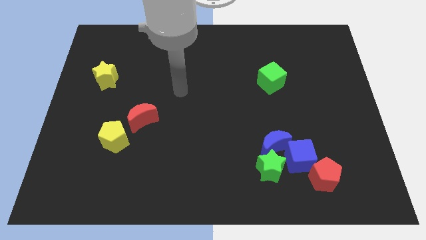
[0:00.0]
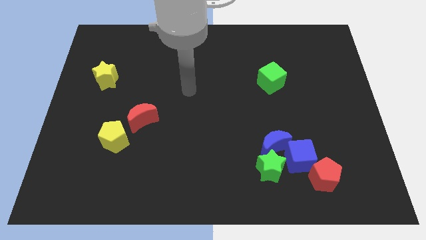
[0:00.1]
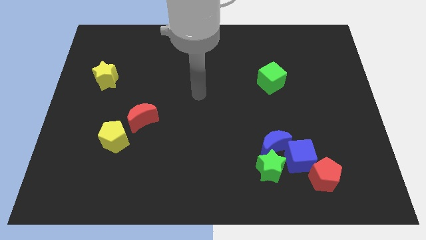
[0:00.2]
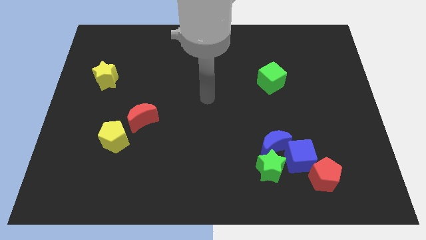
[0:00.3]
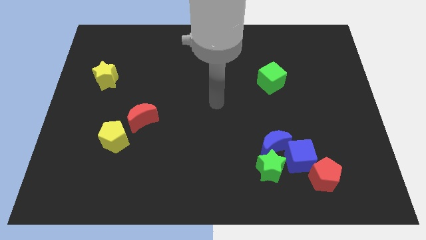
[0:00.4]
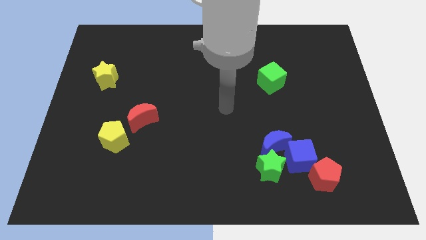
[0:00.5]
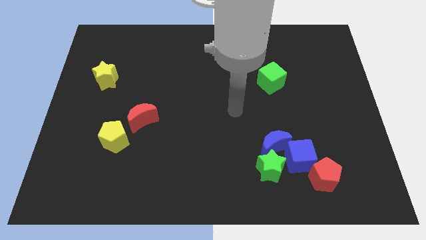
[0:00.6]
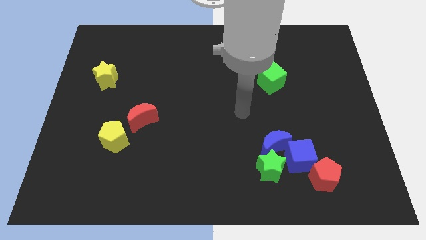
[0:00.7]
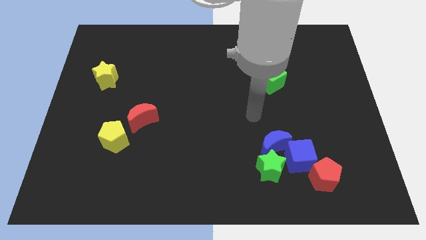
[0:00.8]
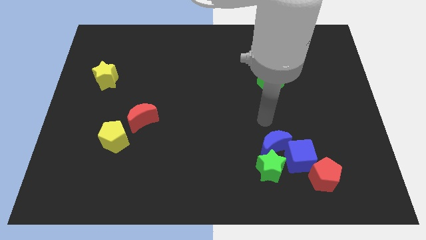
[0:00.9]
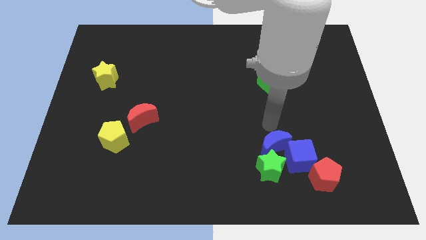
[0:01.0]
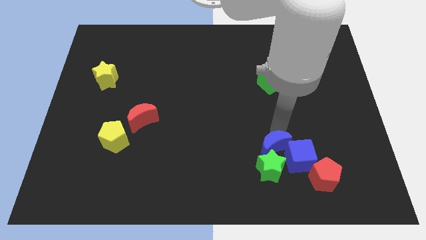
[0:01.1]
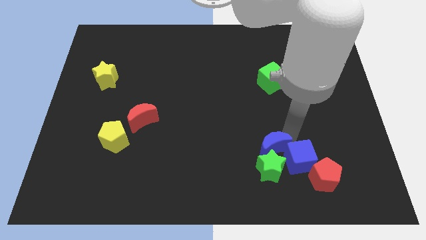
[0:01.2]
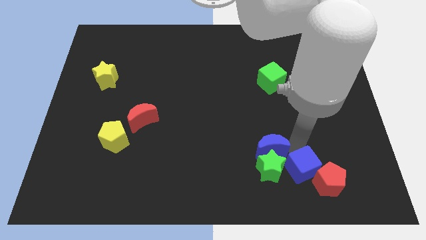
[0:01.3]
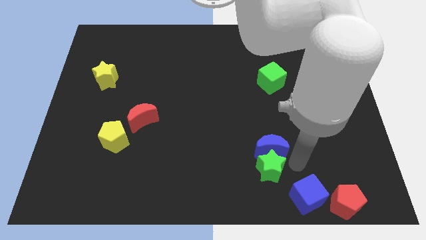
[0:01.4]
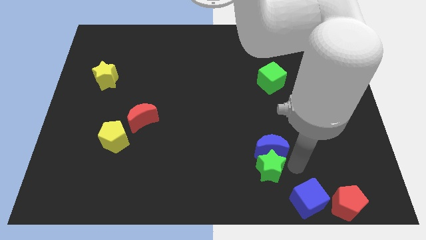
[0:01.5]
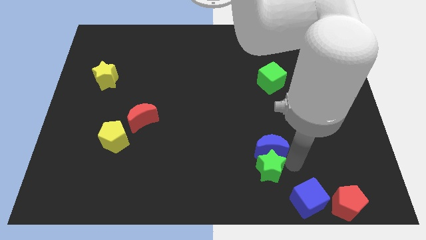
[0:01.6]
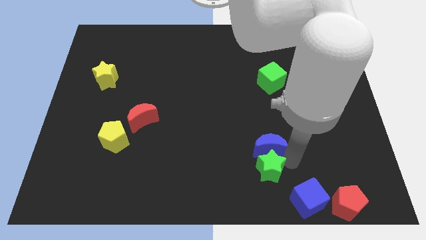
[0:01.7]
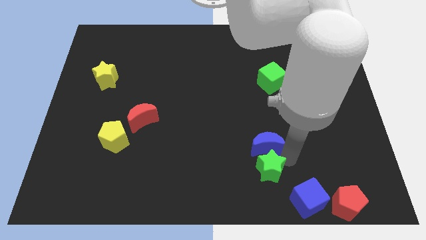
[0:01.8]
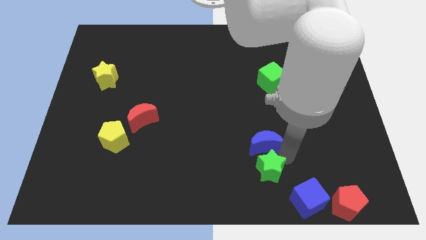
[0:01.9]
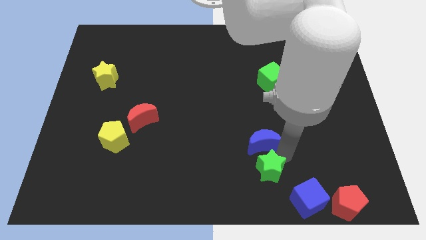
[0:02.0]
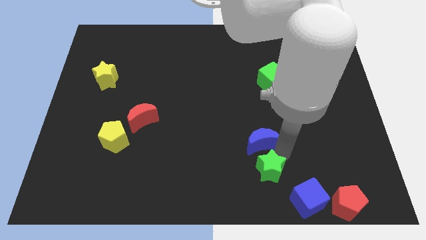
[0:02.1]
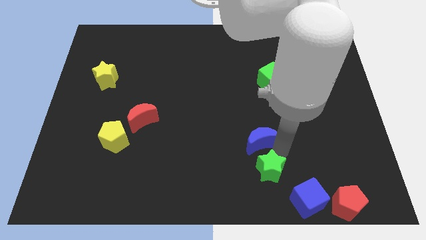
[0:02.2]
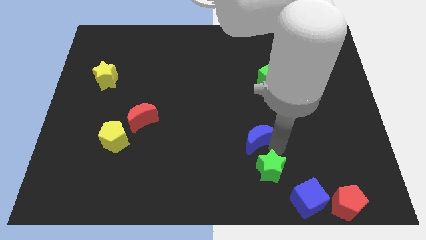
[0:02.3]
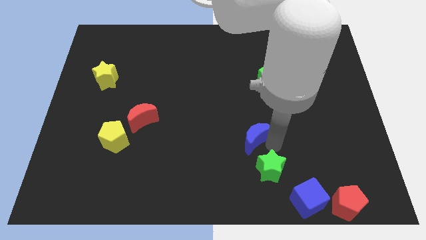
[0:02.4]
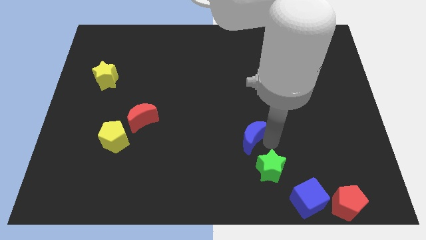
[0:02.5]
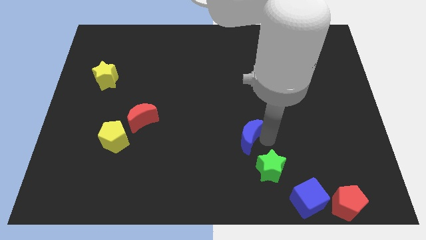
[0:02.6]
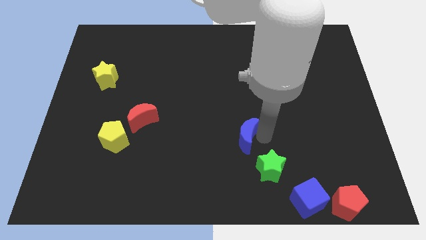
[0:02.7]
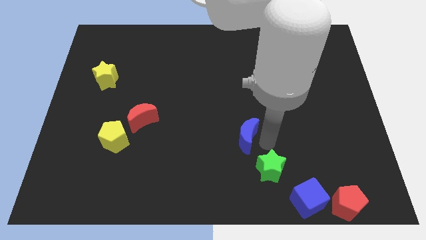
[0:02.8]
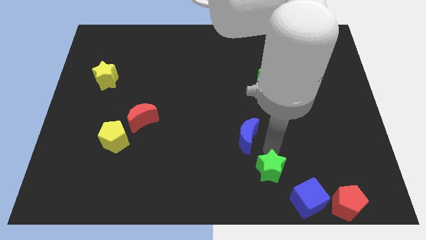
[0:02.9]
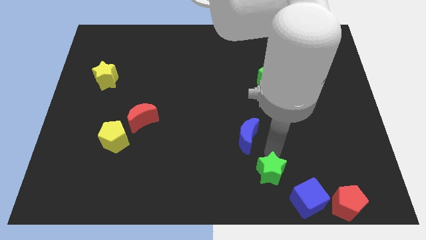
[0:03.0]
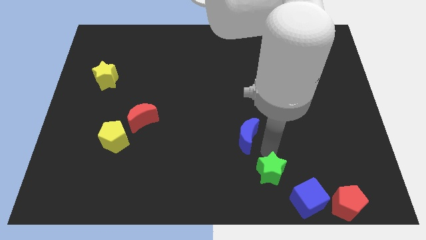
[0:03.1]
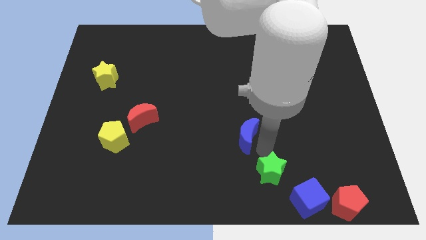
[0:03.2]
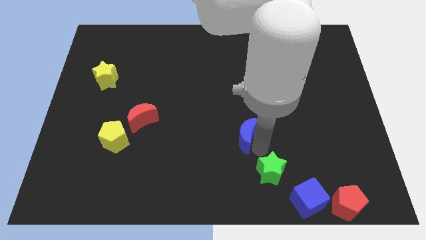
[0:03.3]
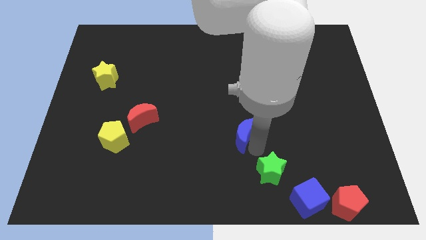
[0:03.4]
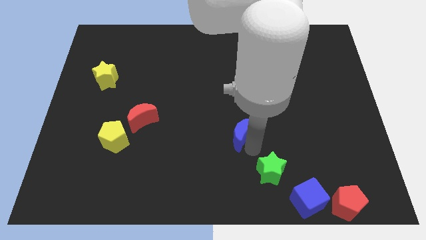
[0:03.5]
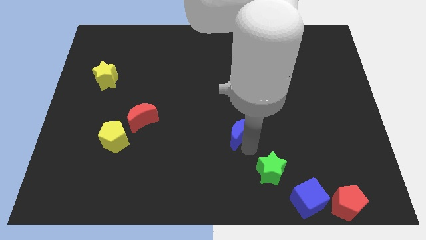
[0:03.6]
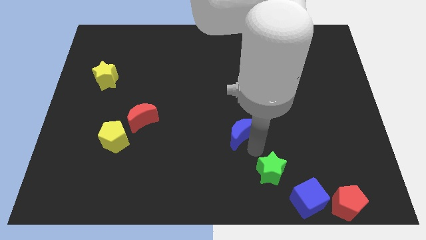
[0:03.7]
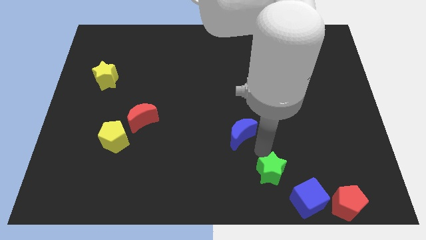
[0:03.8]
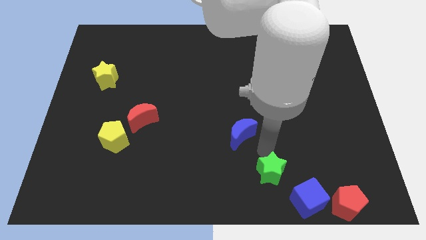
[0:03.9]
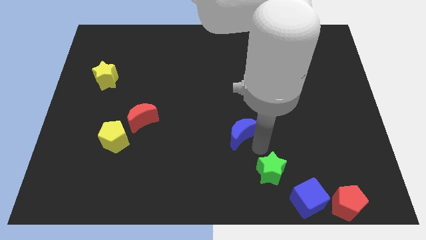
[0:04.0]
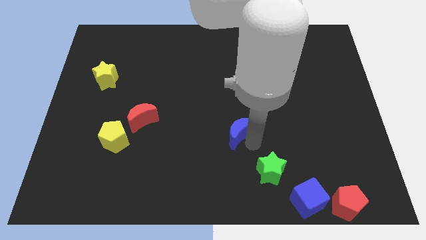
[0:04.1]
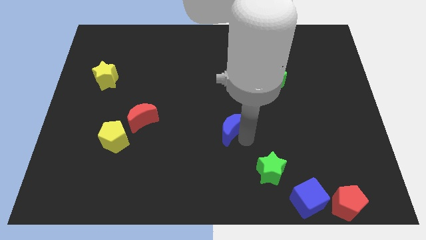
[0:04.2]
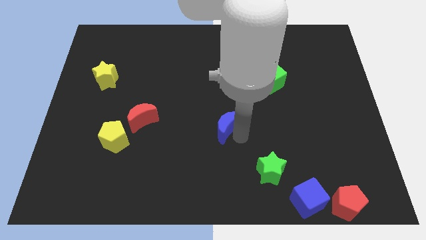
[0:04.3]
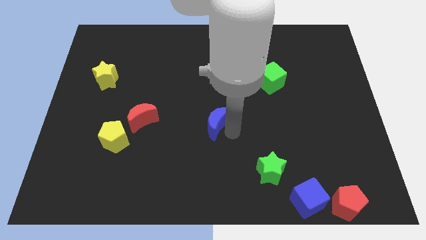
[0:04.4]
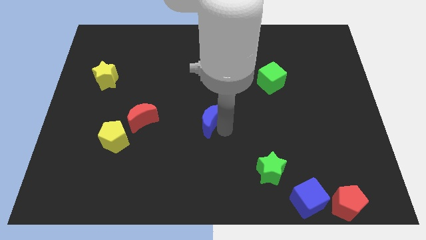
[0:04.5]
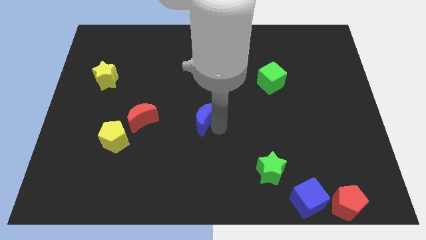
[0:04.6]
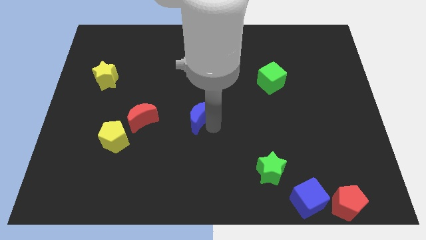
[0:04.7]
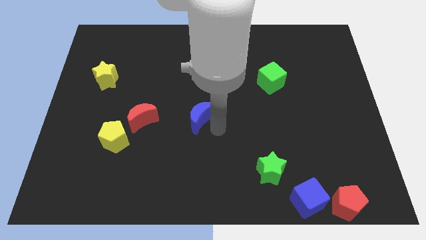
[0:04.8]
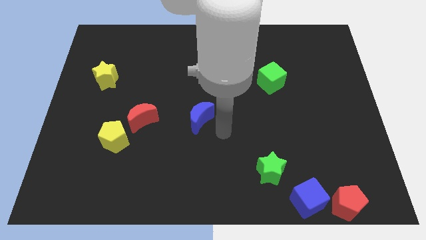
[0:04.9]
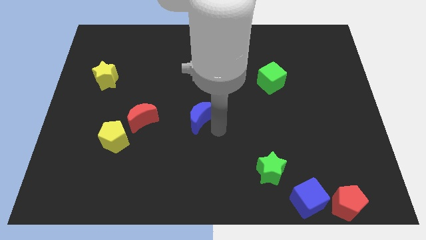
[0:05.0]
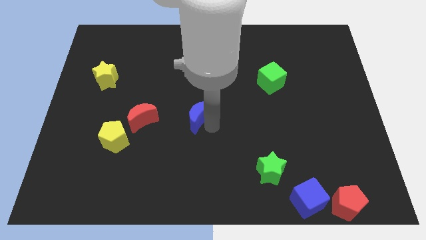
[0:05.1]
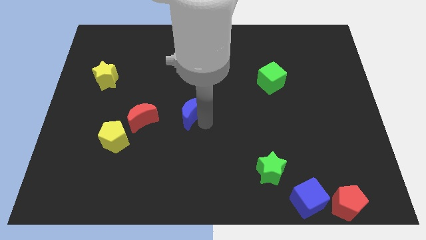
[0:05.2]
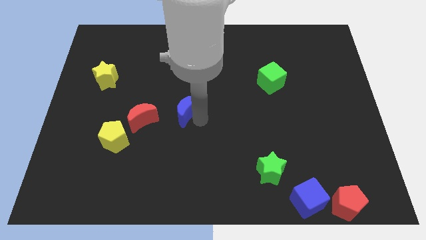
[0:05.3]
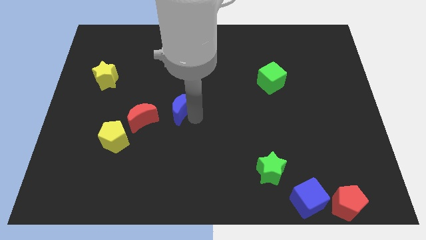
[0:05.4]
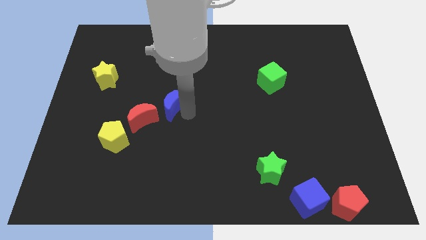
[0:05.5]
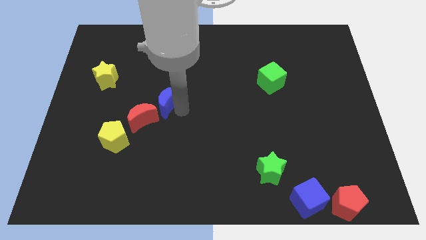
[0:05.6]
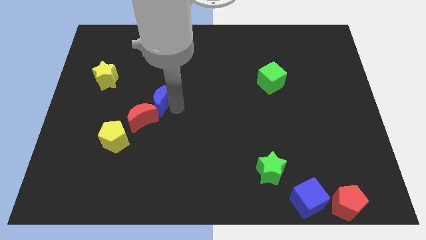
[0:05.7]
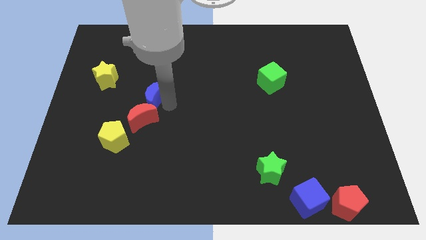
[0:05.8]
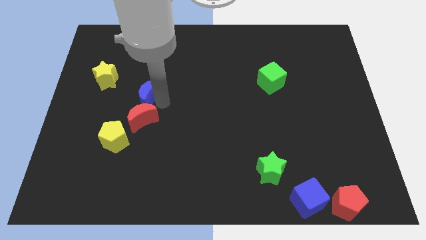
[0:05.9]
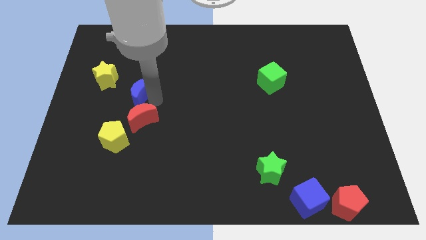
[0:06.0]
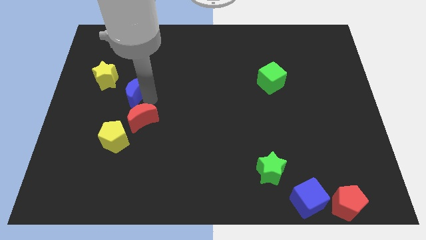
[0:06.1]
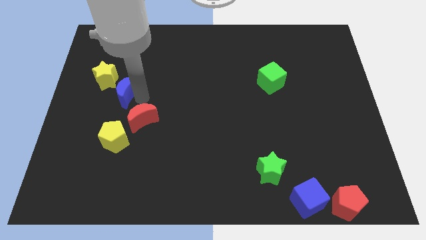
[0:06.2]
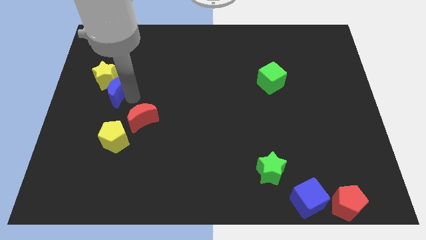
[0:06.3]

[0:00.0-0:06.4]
slide the blue moon close to the yellow star

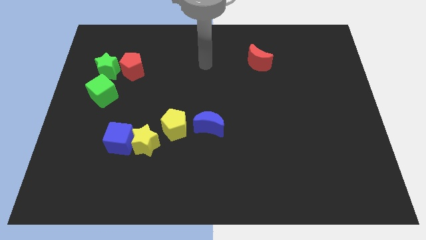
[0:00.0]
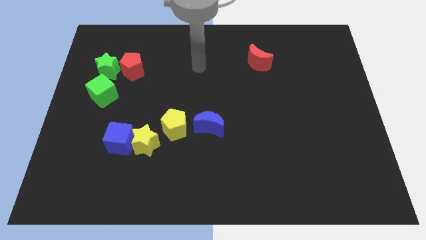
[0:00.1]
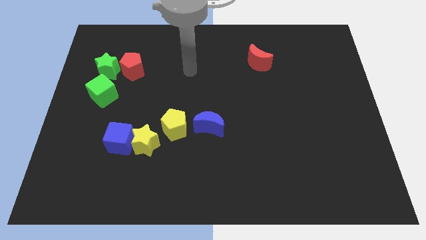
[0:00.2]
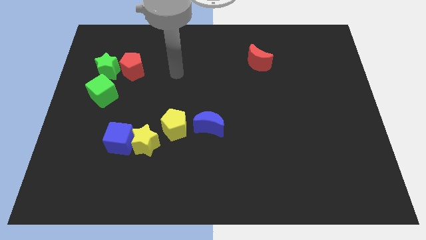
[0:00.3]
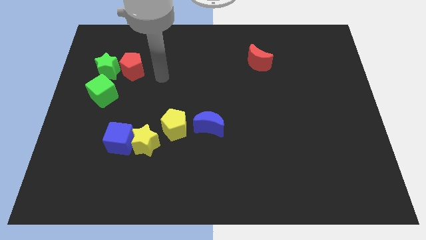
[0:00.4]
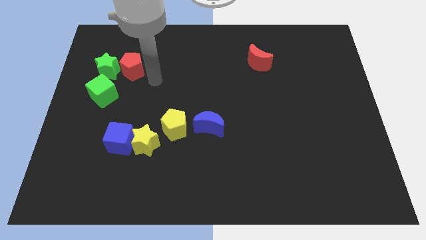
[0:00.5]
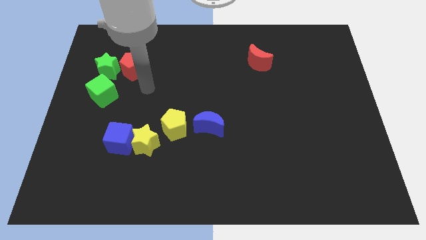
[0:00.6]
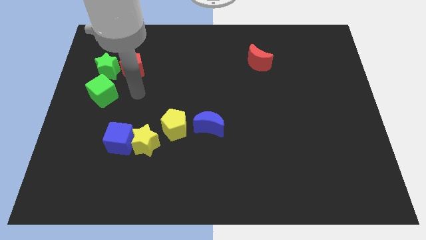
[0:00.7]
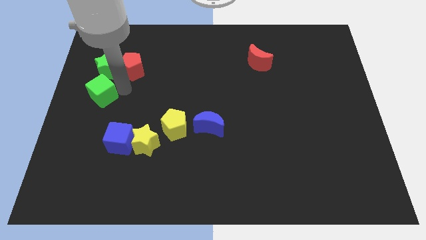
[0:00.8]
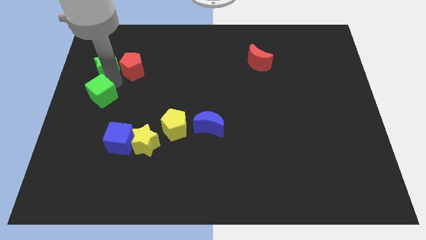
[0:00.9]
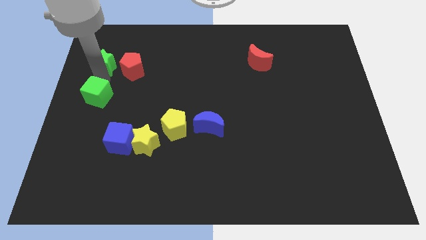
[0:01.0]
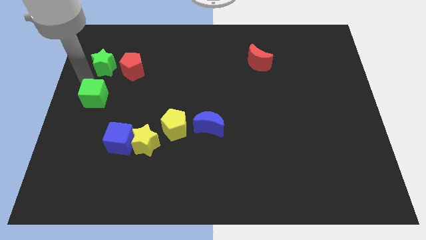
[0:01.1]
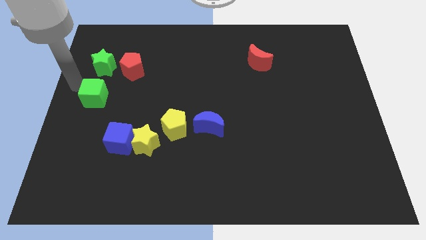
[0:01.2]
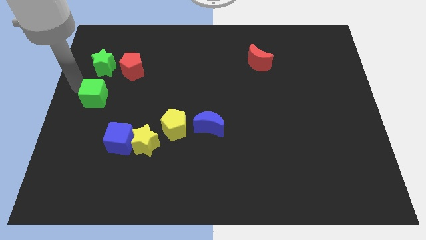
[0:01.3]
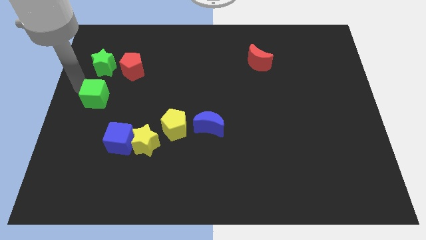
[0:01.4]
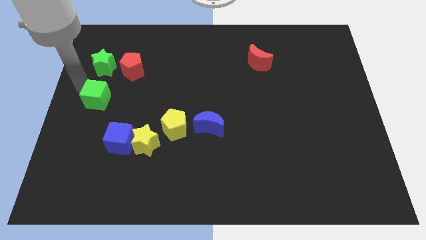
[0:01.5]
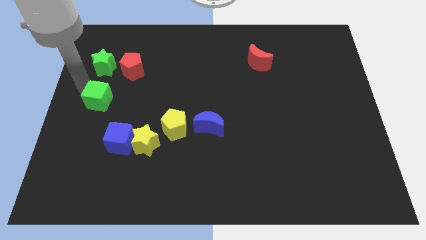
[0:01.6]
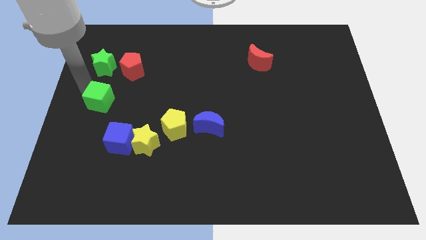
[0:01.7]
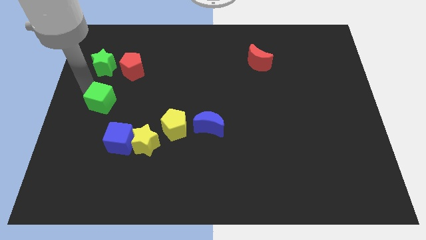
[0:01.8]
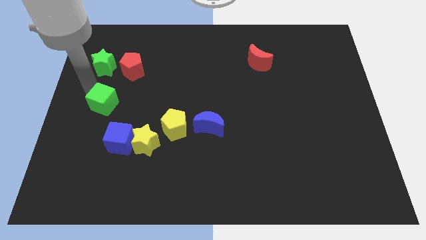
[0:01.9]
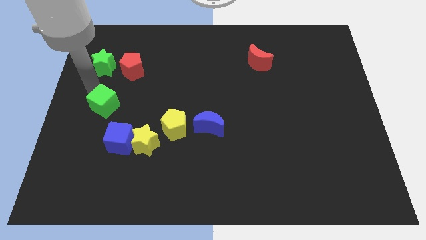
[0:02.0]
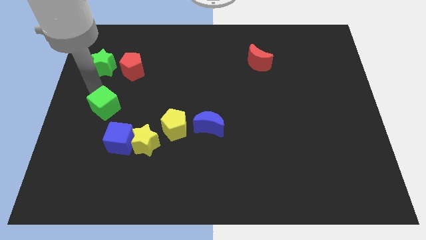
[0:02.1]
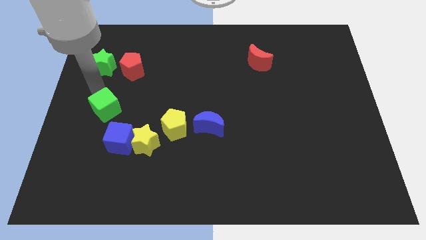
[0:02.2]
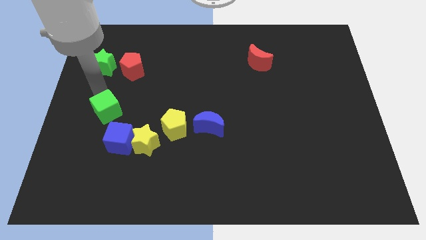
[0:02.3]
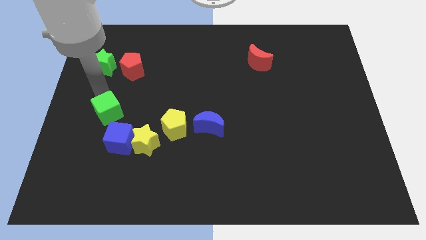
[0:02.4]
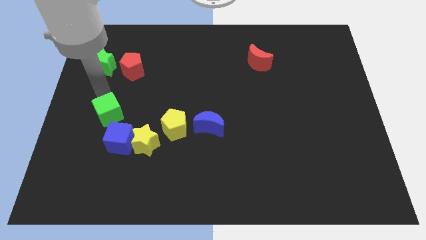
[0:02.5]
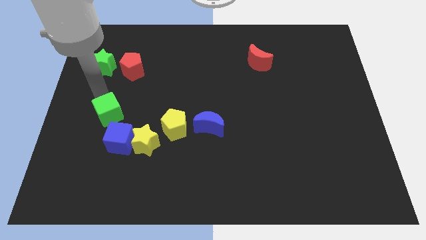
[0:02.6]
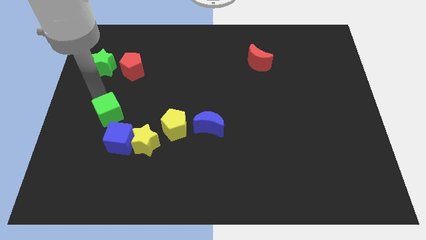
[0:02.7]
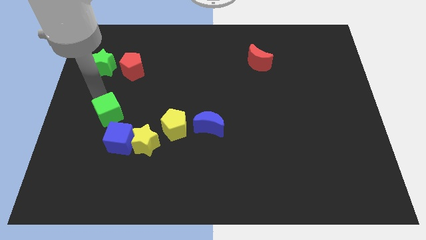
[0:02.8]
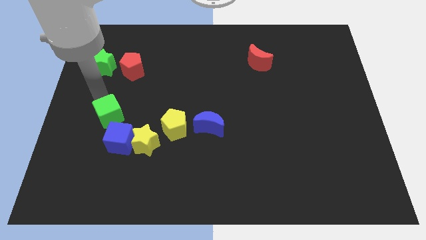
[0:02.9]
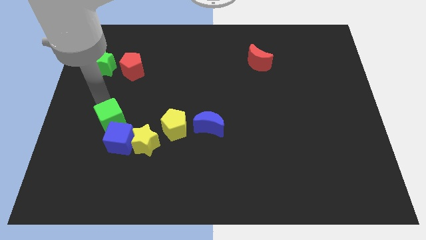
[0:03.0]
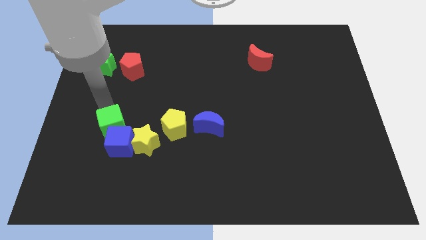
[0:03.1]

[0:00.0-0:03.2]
move the green cube close to the blue cube
